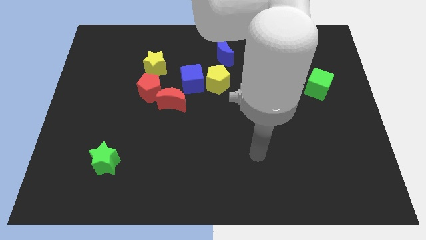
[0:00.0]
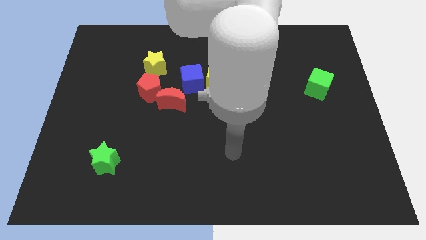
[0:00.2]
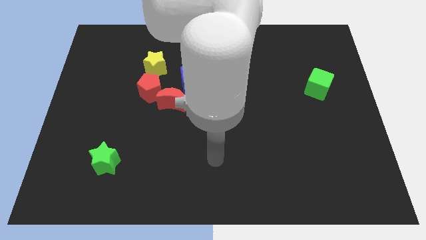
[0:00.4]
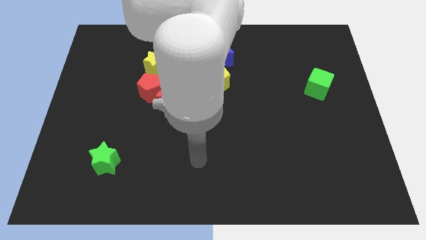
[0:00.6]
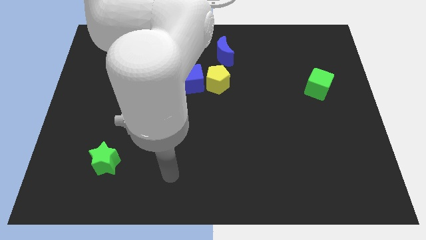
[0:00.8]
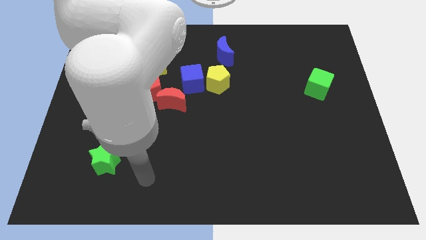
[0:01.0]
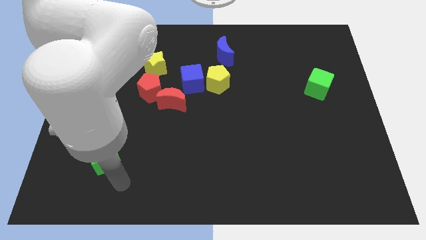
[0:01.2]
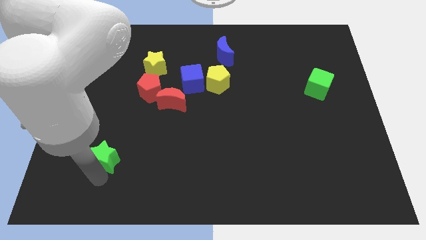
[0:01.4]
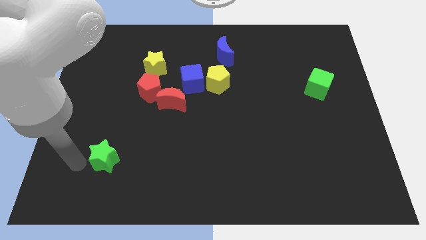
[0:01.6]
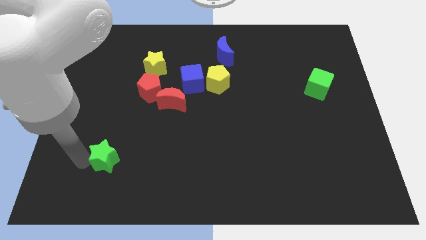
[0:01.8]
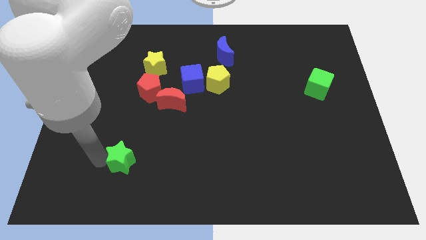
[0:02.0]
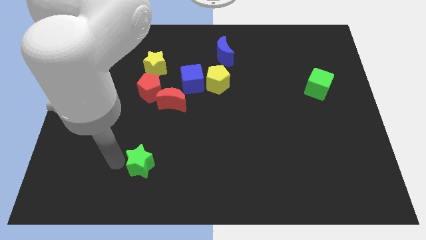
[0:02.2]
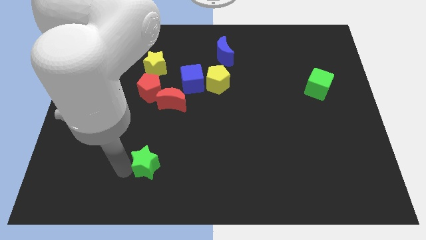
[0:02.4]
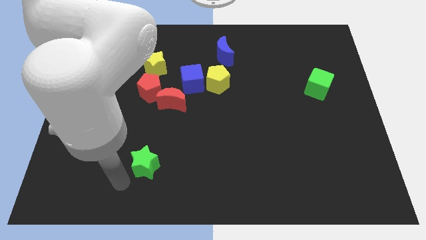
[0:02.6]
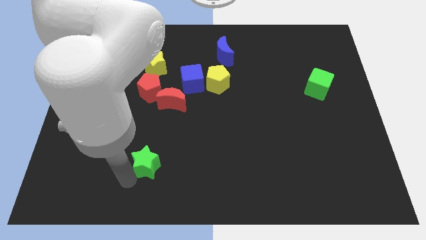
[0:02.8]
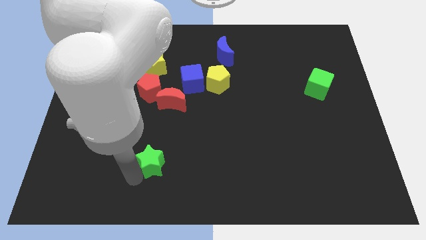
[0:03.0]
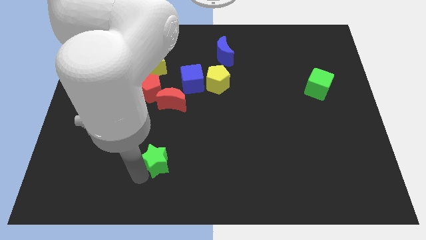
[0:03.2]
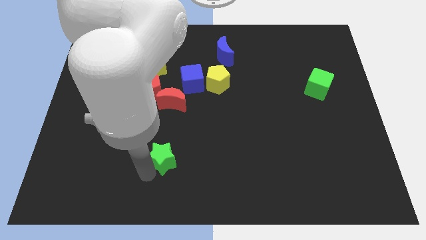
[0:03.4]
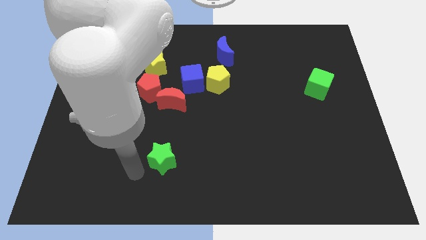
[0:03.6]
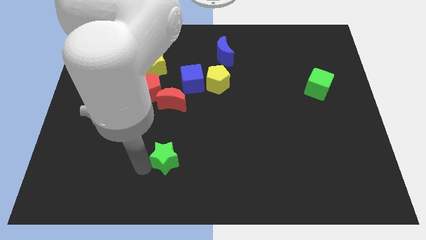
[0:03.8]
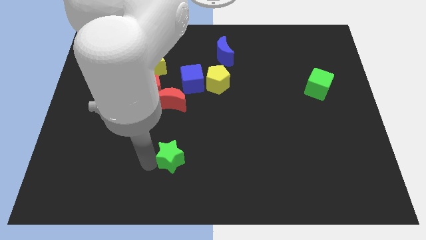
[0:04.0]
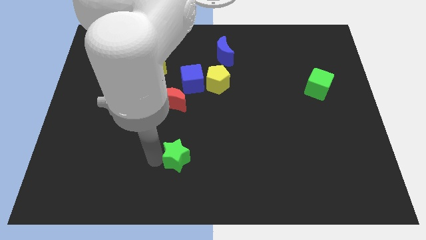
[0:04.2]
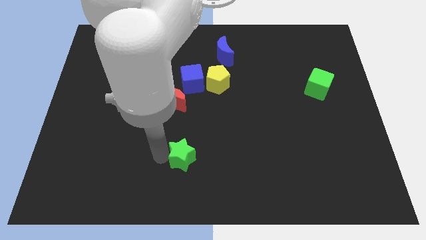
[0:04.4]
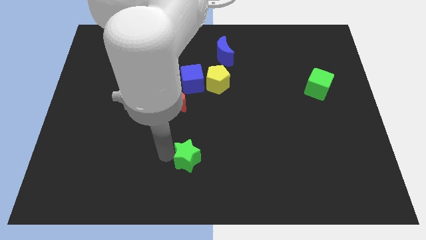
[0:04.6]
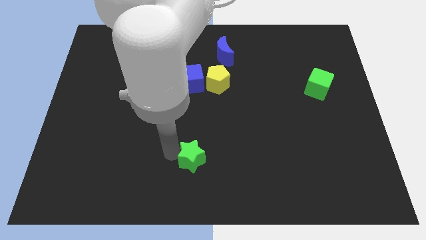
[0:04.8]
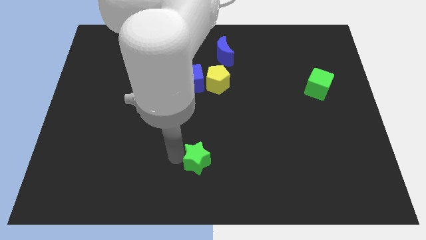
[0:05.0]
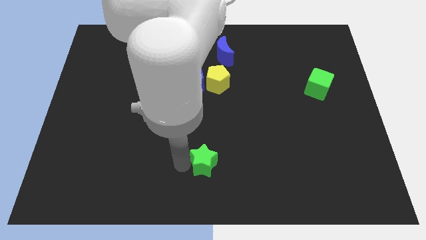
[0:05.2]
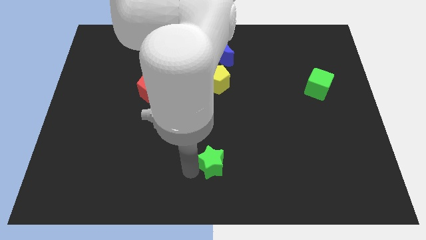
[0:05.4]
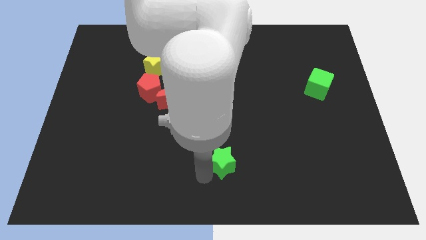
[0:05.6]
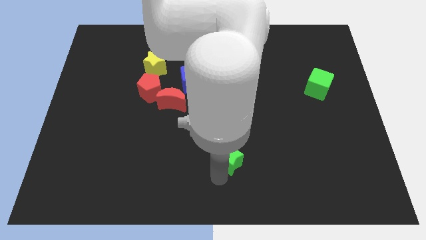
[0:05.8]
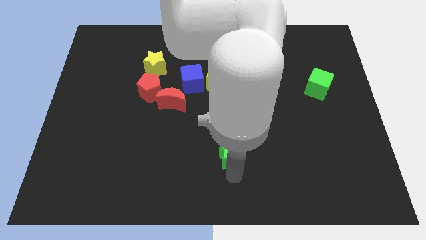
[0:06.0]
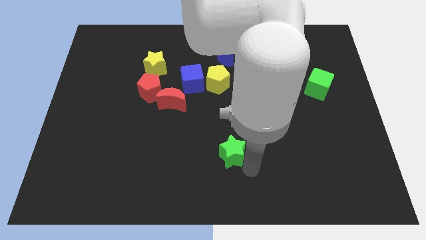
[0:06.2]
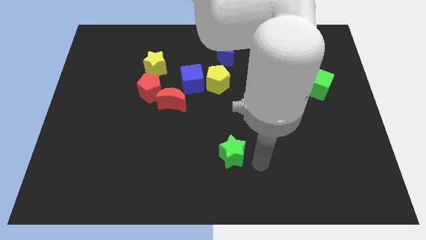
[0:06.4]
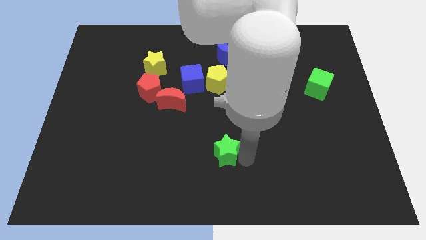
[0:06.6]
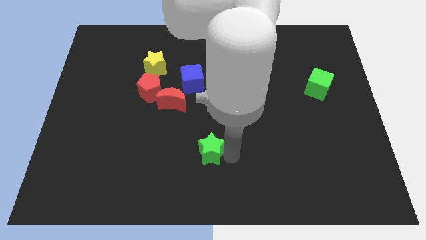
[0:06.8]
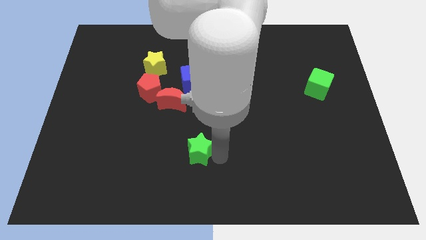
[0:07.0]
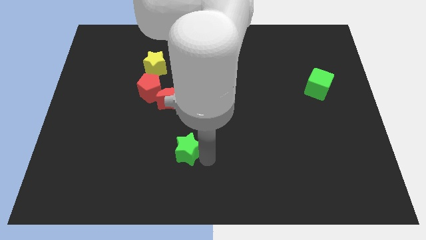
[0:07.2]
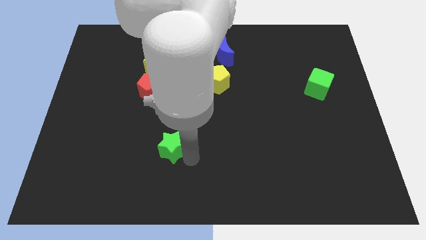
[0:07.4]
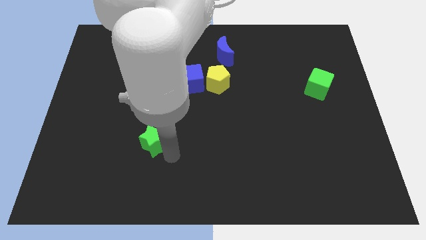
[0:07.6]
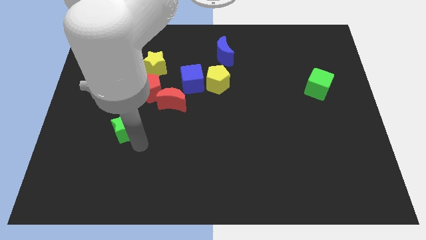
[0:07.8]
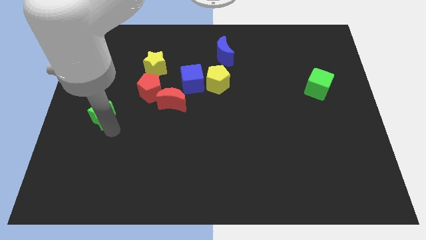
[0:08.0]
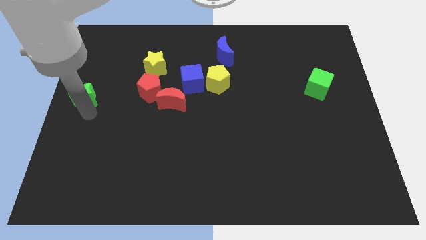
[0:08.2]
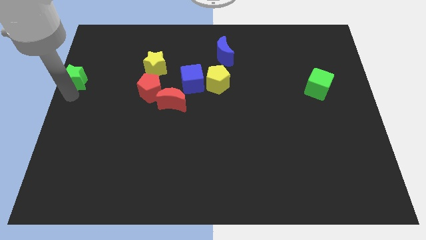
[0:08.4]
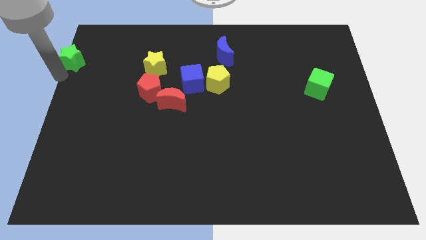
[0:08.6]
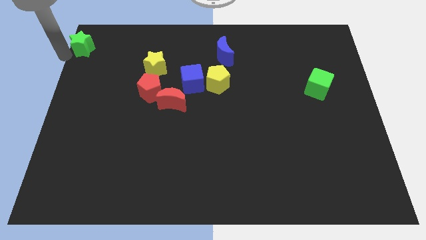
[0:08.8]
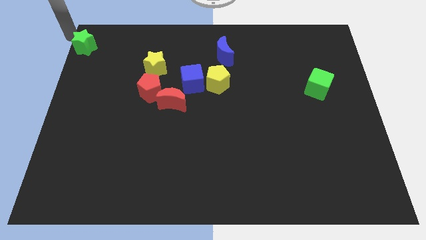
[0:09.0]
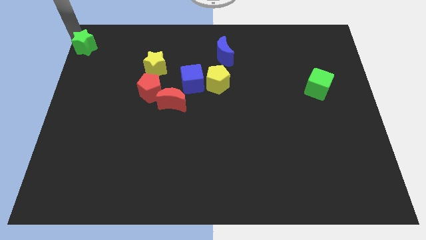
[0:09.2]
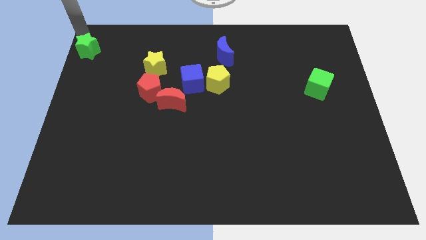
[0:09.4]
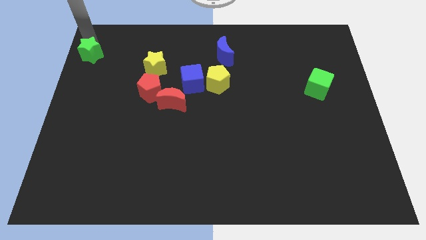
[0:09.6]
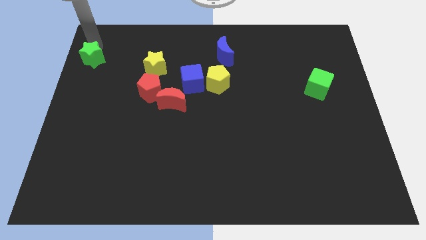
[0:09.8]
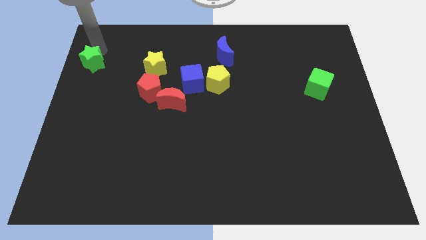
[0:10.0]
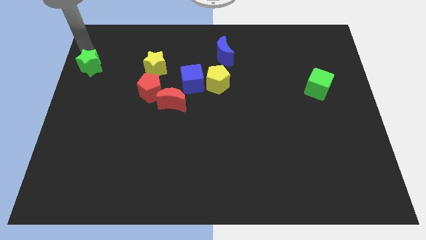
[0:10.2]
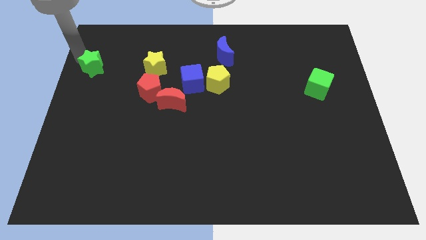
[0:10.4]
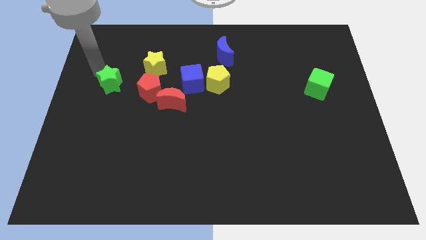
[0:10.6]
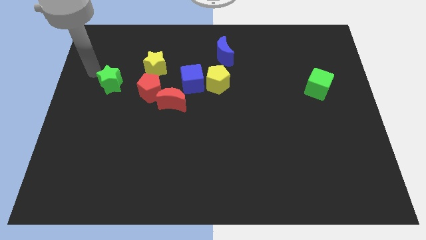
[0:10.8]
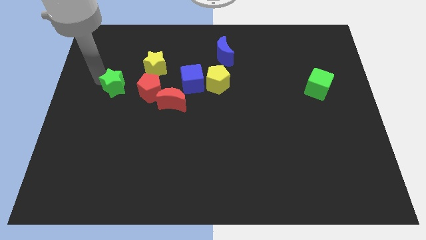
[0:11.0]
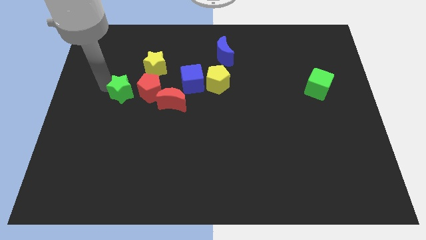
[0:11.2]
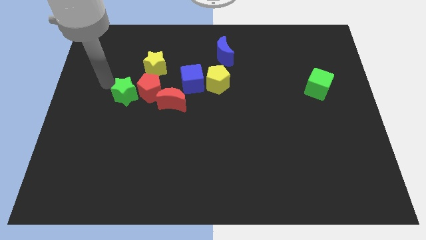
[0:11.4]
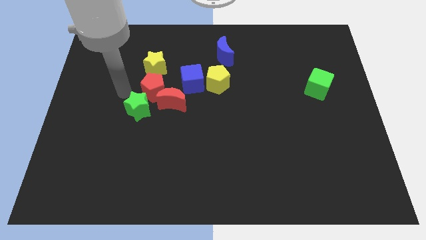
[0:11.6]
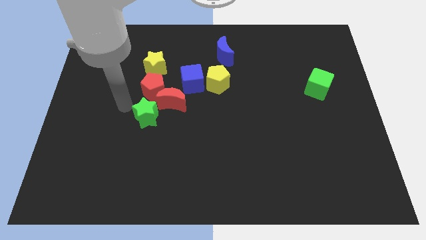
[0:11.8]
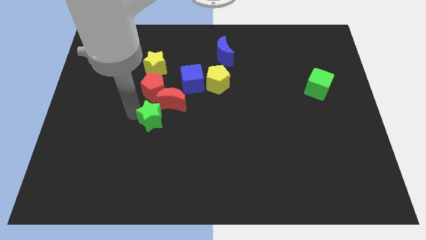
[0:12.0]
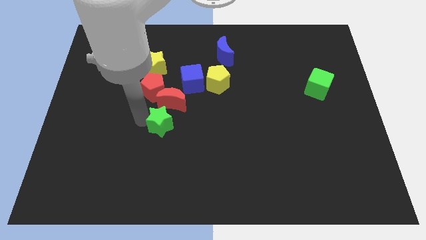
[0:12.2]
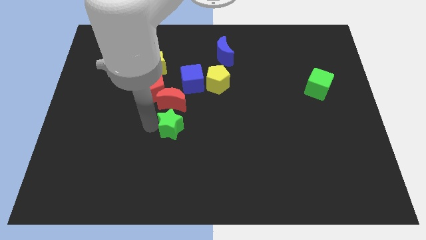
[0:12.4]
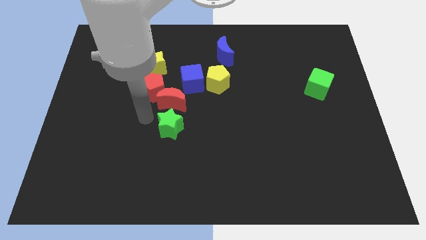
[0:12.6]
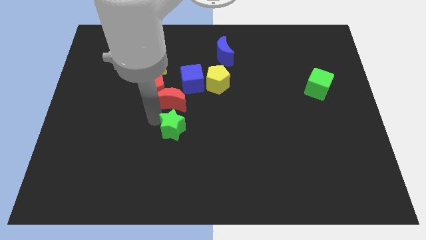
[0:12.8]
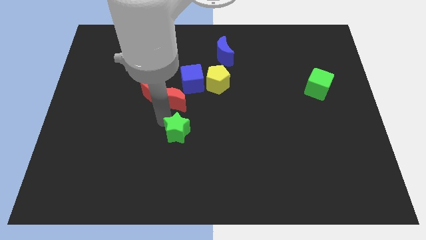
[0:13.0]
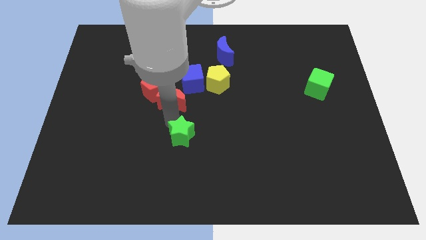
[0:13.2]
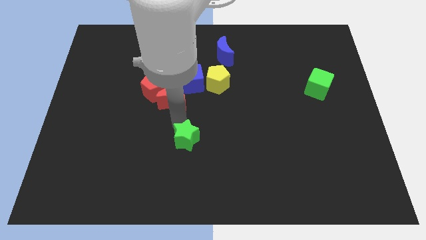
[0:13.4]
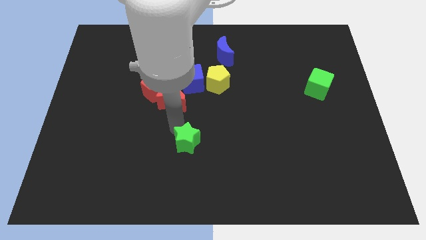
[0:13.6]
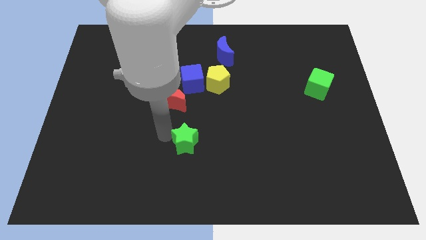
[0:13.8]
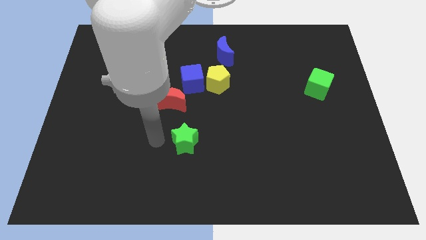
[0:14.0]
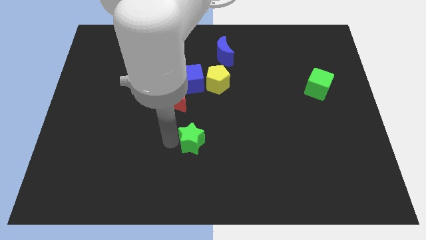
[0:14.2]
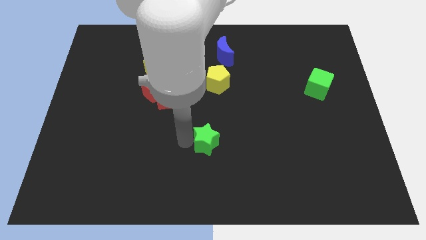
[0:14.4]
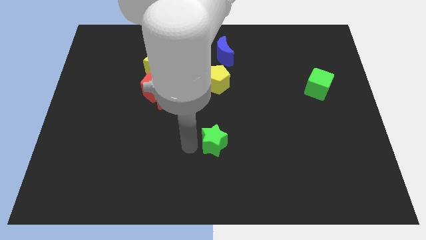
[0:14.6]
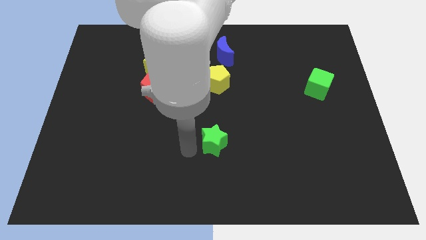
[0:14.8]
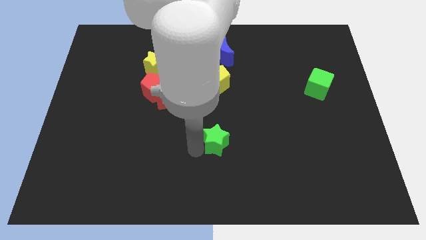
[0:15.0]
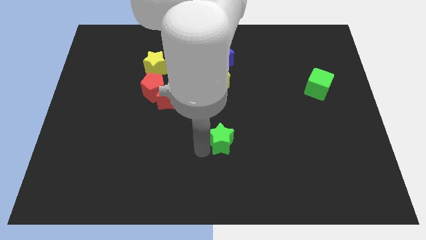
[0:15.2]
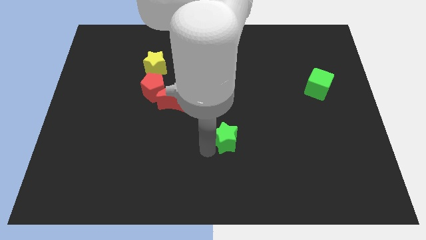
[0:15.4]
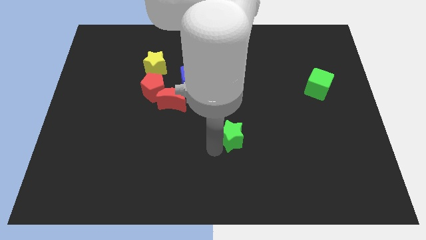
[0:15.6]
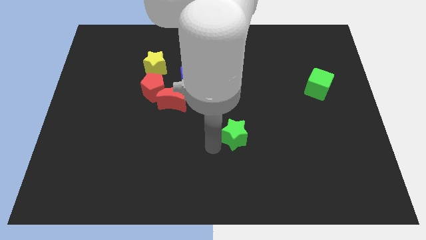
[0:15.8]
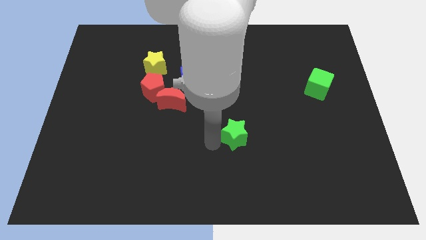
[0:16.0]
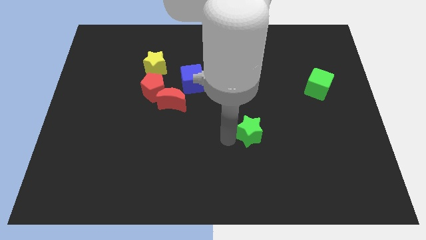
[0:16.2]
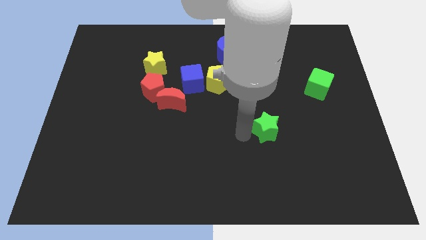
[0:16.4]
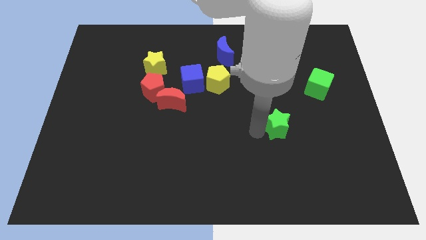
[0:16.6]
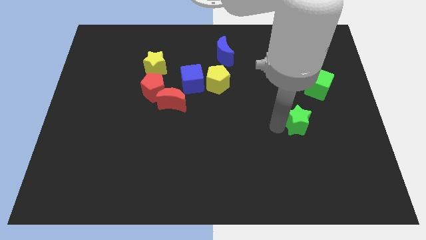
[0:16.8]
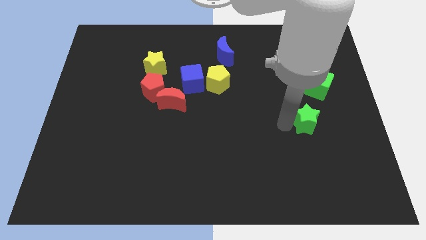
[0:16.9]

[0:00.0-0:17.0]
push the green star to the bottom side of the green cube
